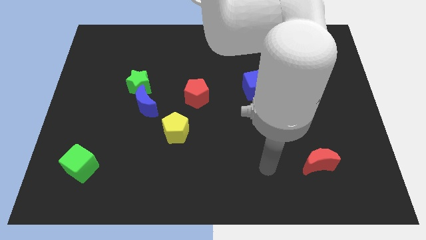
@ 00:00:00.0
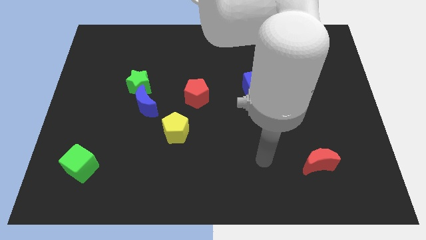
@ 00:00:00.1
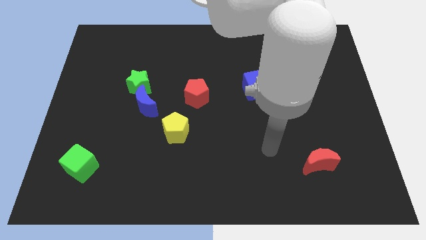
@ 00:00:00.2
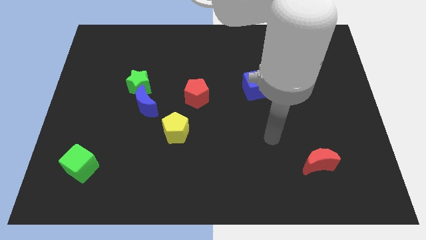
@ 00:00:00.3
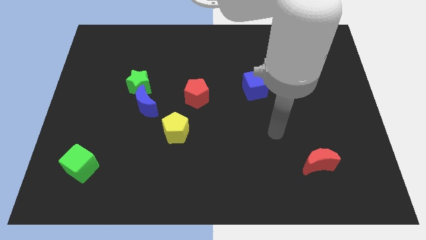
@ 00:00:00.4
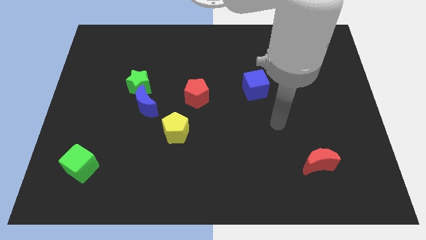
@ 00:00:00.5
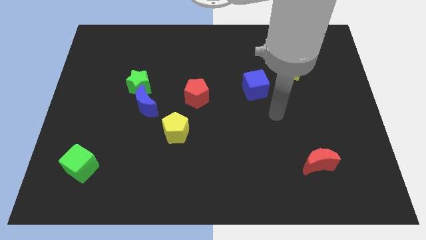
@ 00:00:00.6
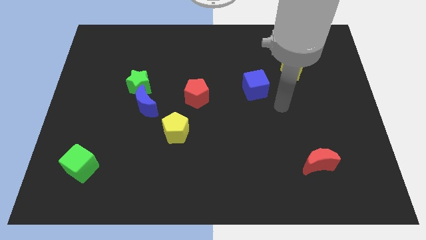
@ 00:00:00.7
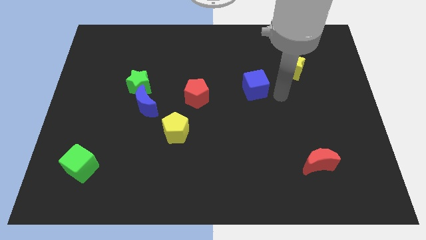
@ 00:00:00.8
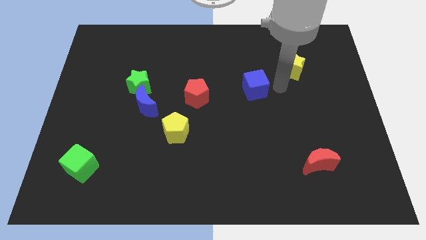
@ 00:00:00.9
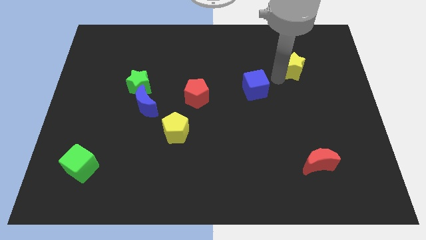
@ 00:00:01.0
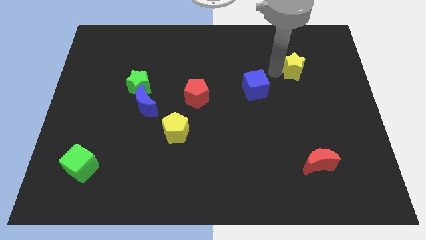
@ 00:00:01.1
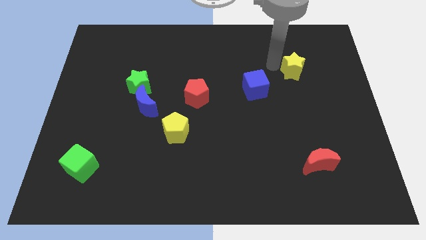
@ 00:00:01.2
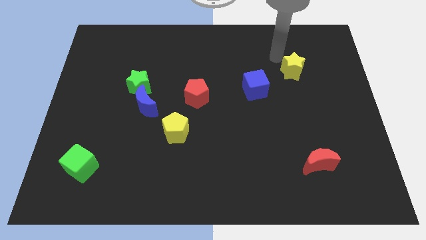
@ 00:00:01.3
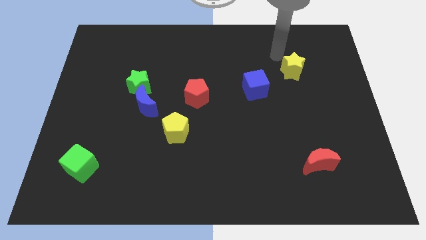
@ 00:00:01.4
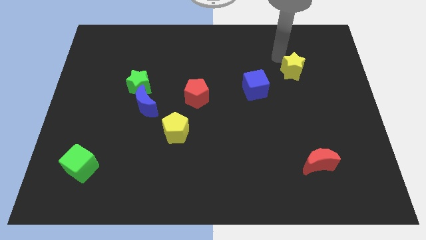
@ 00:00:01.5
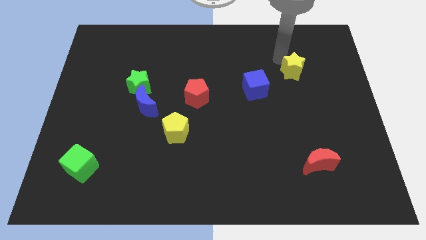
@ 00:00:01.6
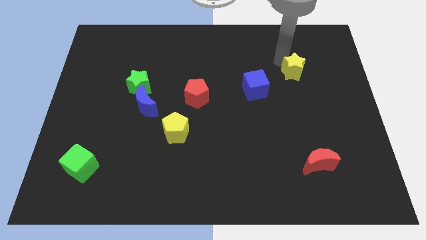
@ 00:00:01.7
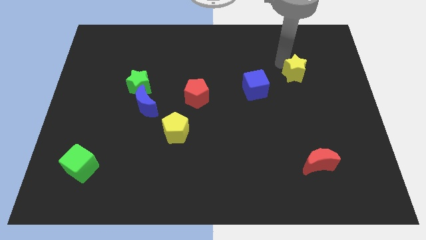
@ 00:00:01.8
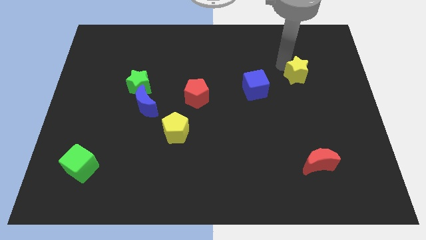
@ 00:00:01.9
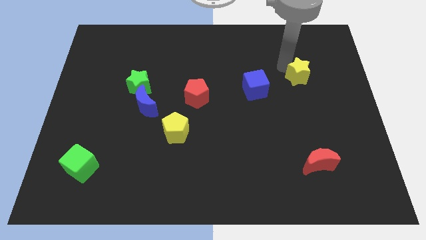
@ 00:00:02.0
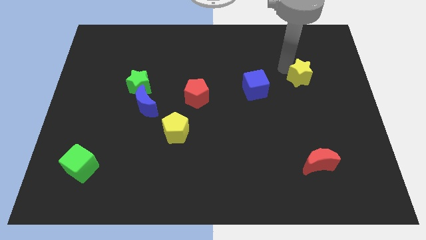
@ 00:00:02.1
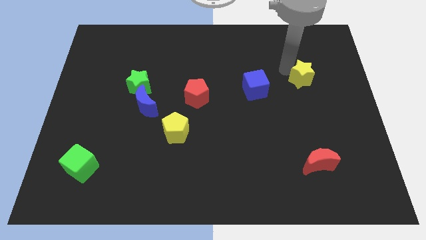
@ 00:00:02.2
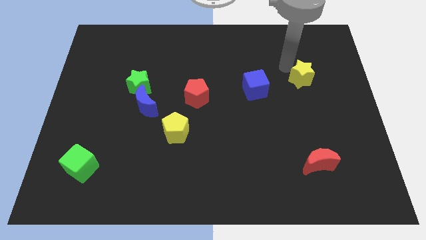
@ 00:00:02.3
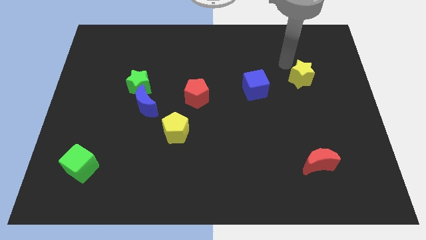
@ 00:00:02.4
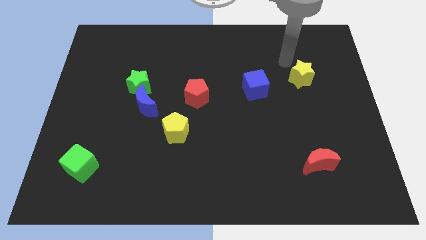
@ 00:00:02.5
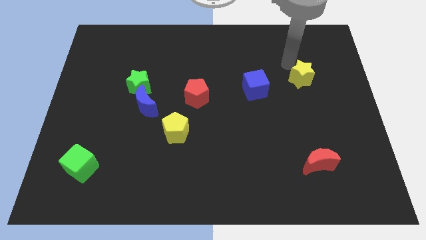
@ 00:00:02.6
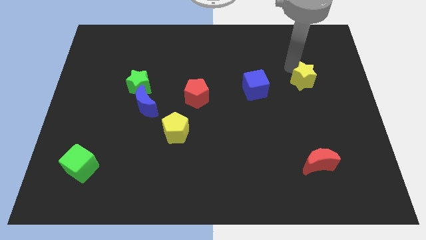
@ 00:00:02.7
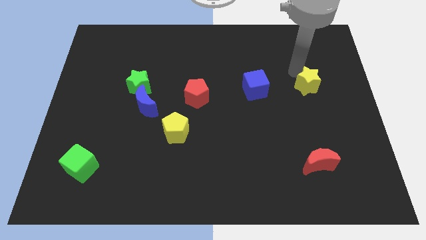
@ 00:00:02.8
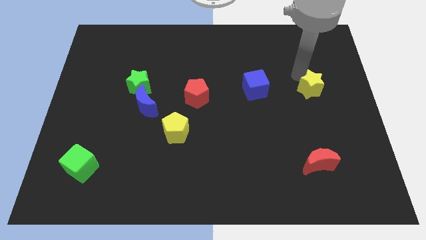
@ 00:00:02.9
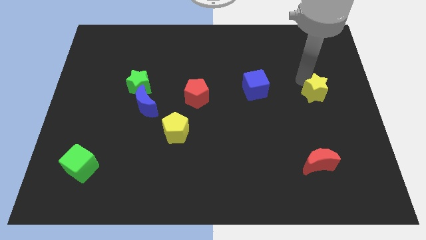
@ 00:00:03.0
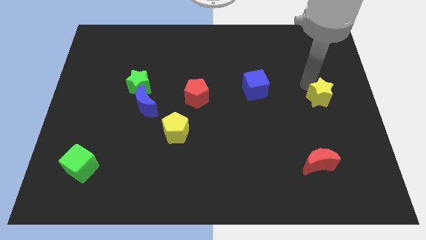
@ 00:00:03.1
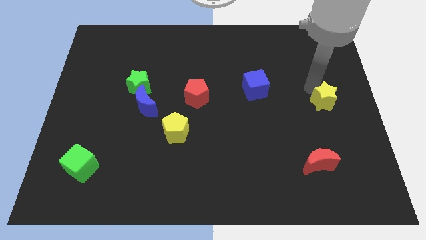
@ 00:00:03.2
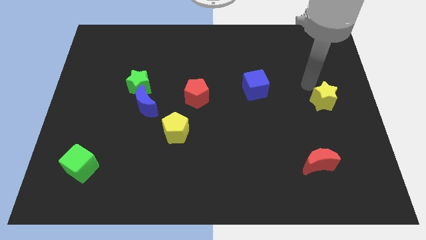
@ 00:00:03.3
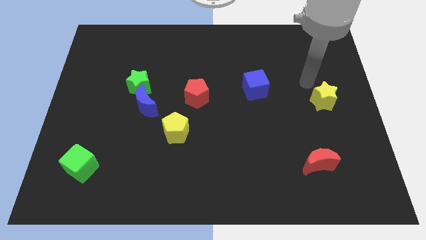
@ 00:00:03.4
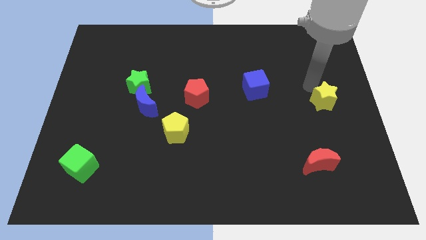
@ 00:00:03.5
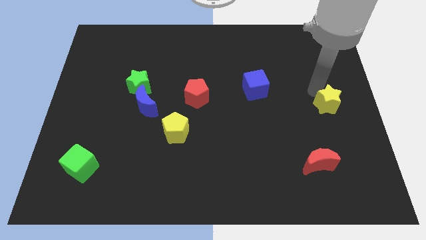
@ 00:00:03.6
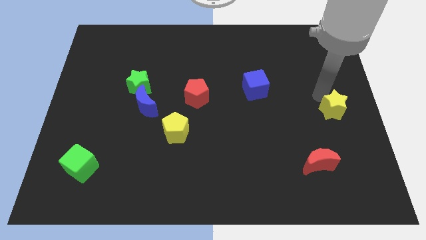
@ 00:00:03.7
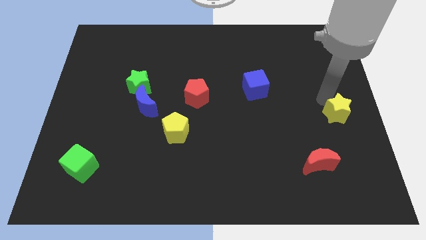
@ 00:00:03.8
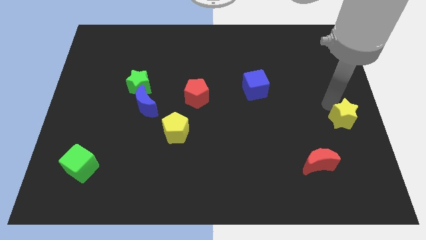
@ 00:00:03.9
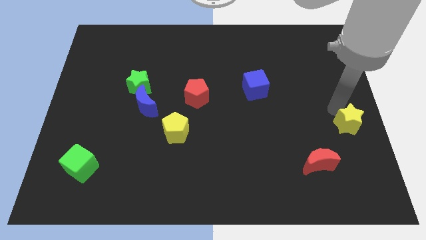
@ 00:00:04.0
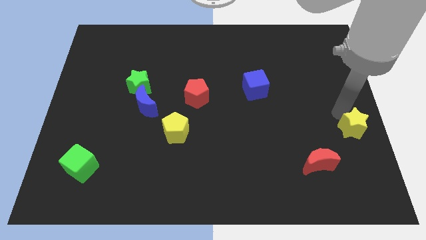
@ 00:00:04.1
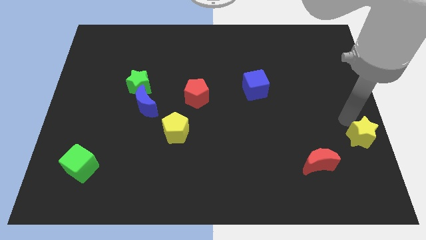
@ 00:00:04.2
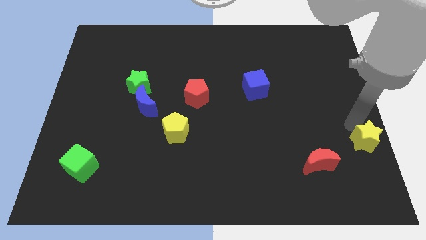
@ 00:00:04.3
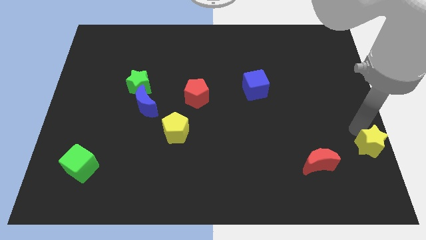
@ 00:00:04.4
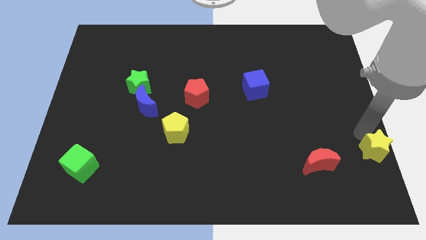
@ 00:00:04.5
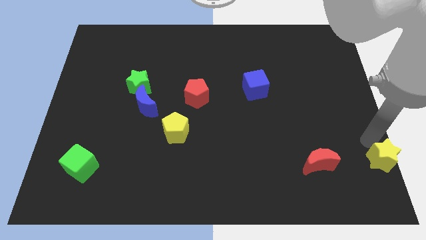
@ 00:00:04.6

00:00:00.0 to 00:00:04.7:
push the yellow star to the bottom right corner

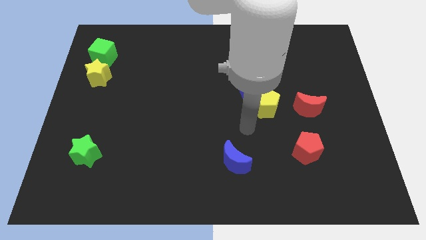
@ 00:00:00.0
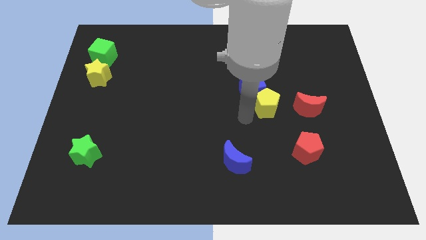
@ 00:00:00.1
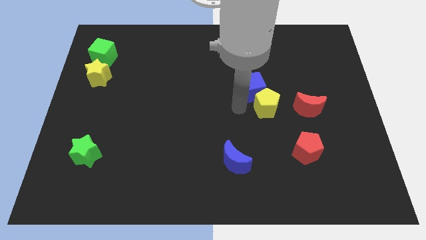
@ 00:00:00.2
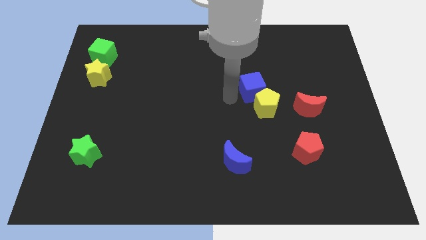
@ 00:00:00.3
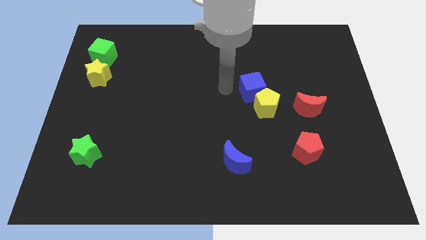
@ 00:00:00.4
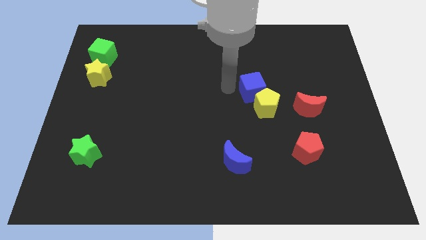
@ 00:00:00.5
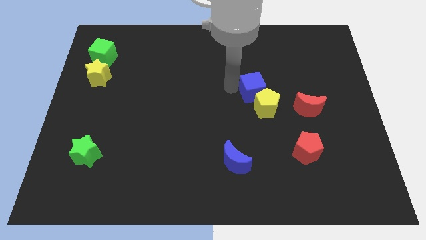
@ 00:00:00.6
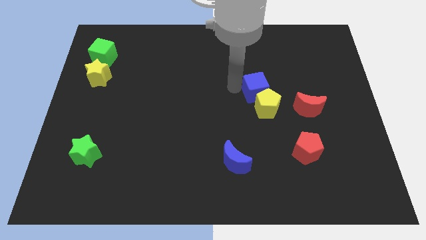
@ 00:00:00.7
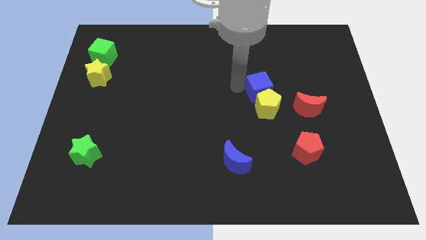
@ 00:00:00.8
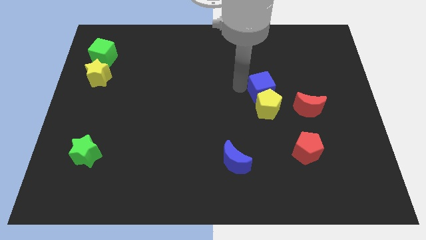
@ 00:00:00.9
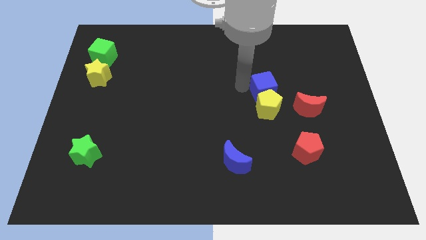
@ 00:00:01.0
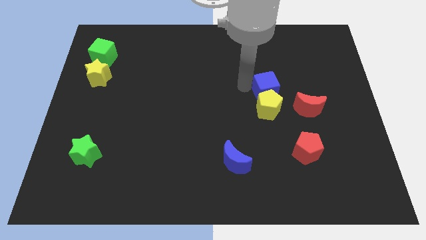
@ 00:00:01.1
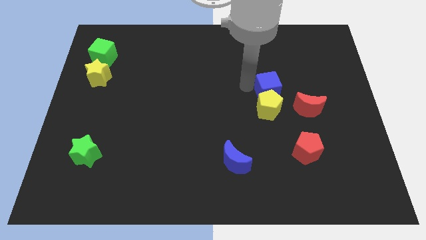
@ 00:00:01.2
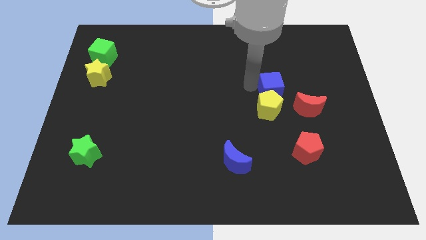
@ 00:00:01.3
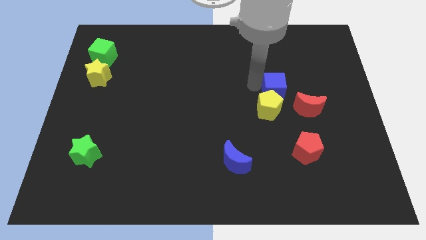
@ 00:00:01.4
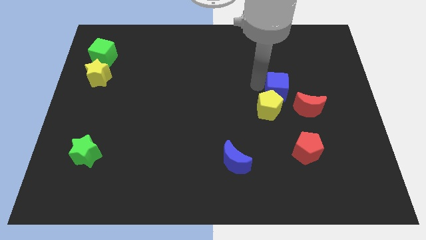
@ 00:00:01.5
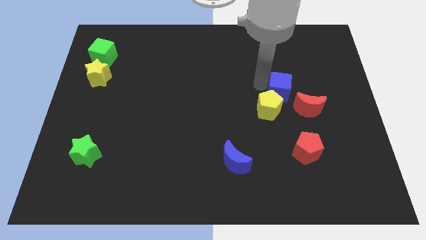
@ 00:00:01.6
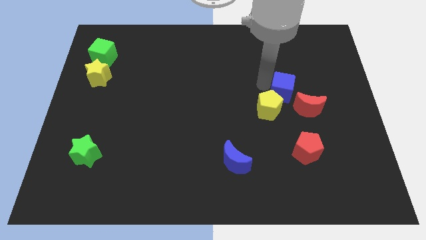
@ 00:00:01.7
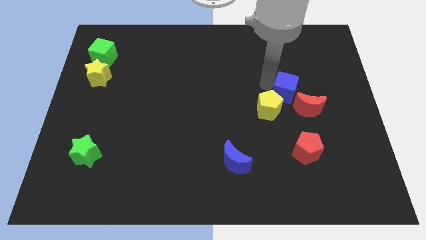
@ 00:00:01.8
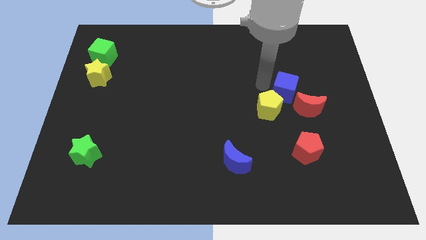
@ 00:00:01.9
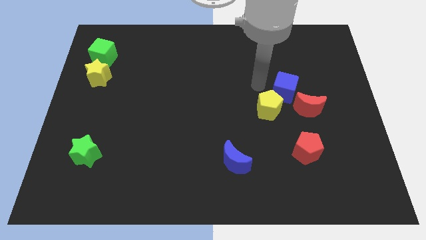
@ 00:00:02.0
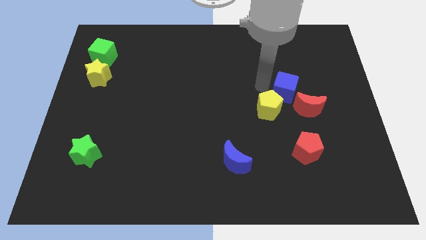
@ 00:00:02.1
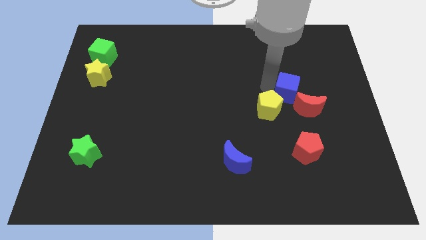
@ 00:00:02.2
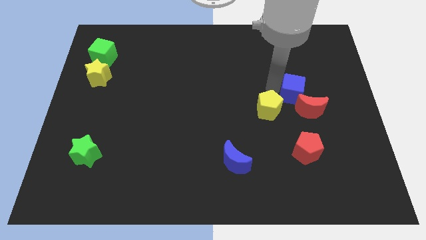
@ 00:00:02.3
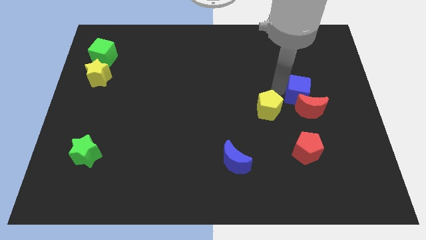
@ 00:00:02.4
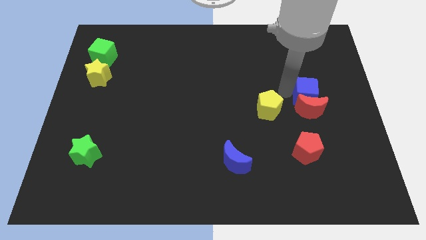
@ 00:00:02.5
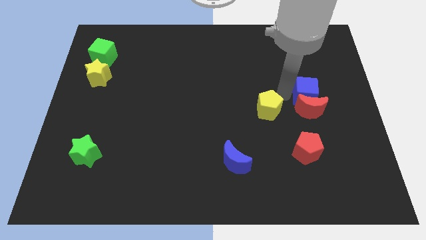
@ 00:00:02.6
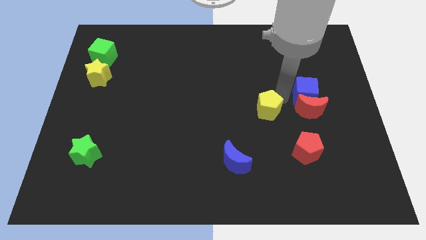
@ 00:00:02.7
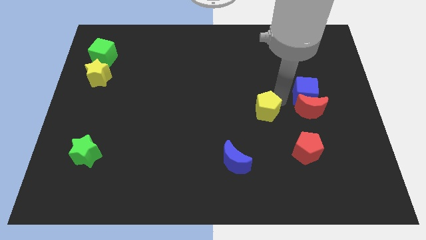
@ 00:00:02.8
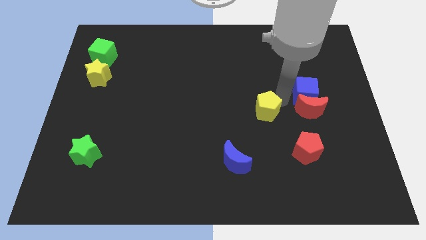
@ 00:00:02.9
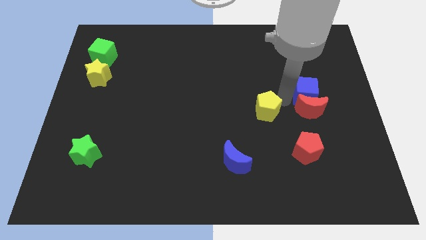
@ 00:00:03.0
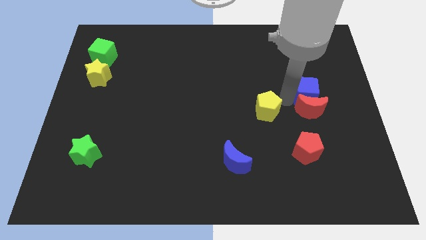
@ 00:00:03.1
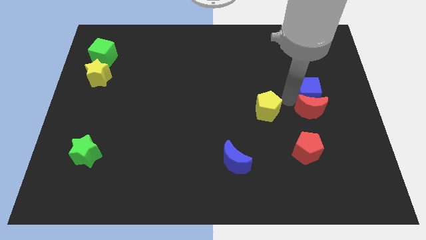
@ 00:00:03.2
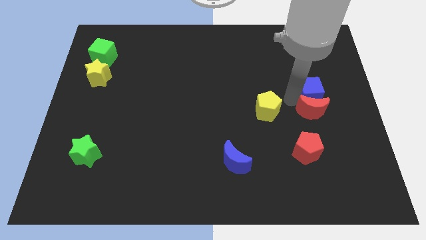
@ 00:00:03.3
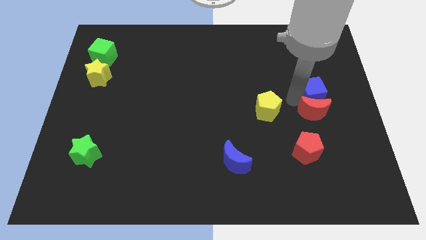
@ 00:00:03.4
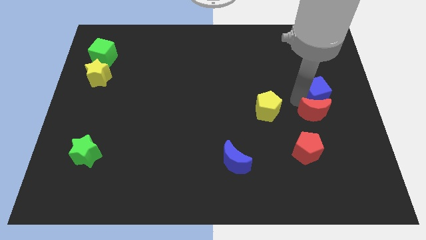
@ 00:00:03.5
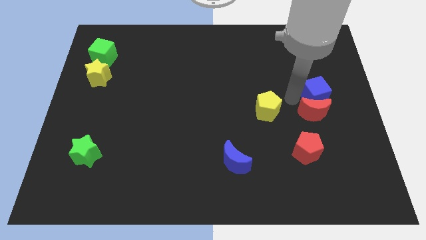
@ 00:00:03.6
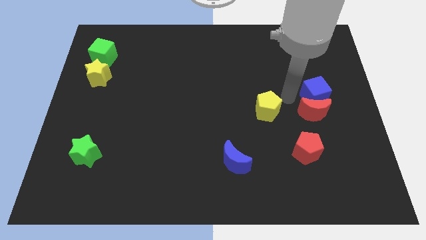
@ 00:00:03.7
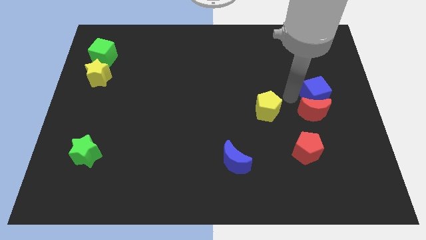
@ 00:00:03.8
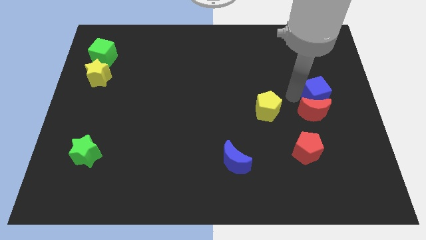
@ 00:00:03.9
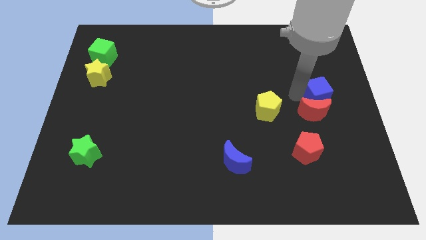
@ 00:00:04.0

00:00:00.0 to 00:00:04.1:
slide the blue cube to the center right
